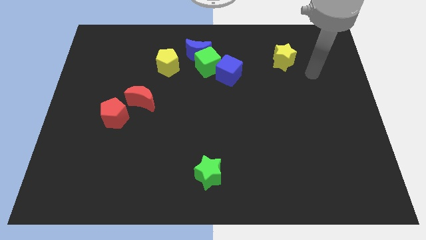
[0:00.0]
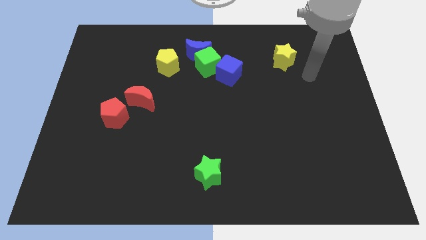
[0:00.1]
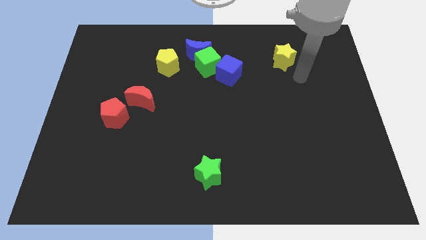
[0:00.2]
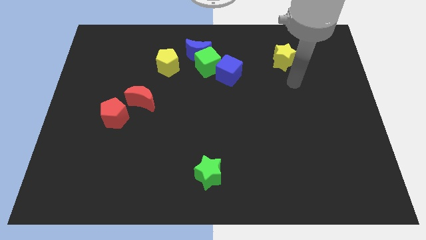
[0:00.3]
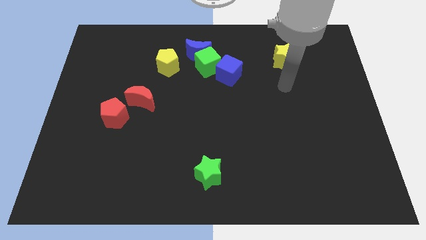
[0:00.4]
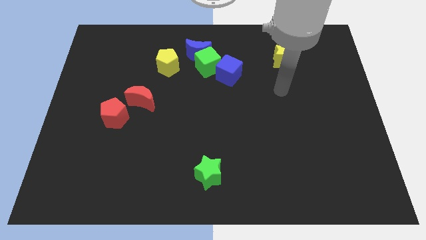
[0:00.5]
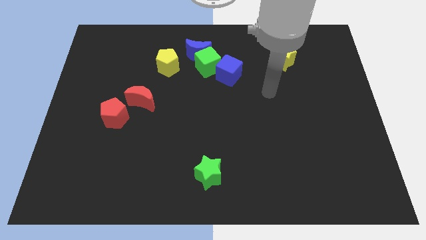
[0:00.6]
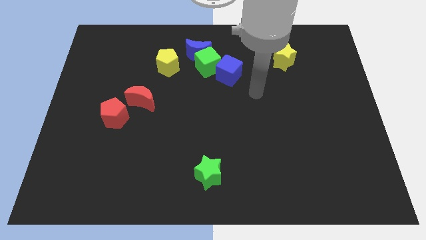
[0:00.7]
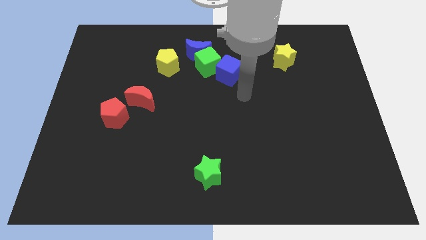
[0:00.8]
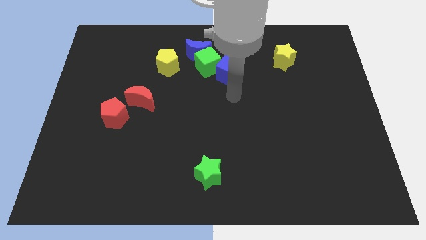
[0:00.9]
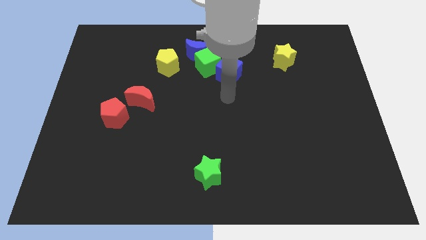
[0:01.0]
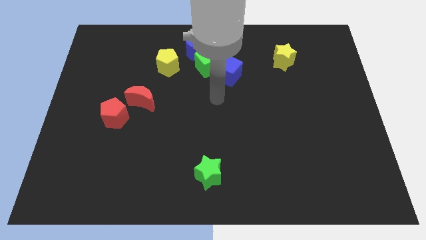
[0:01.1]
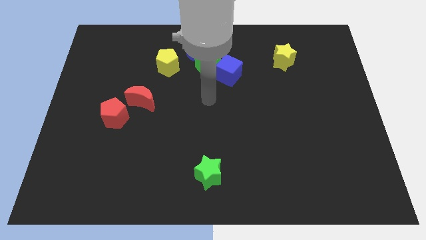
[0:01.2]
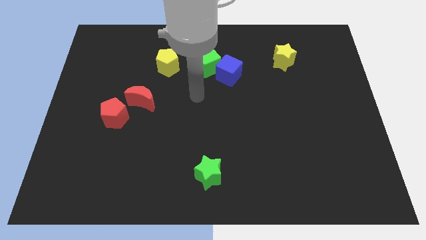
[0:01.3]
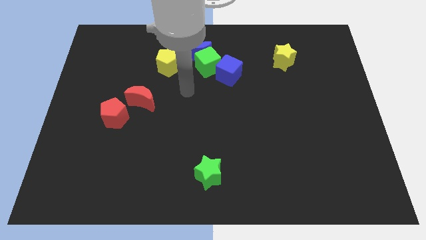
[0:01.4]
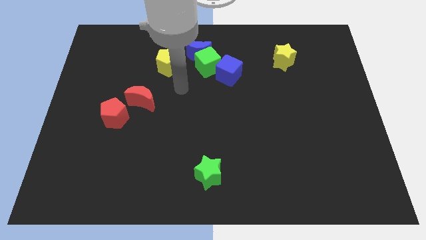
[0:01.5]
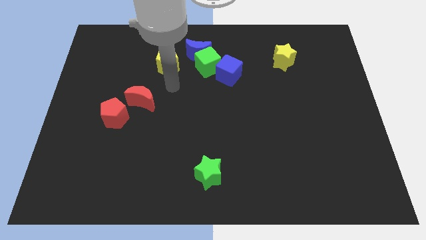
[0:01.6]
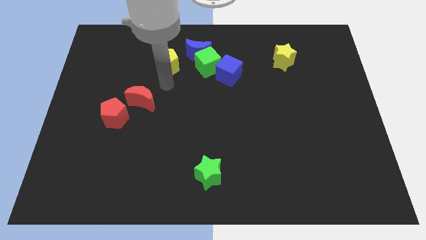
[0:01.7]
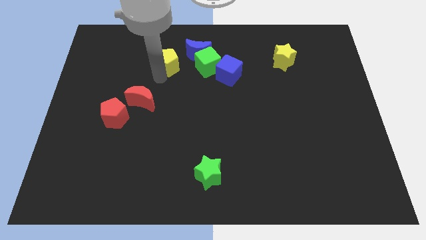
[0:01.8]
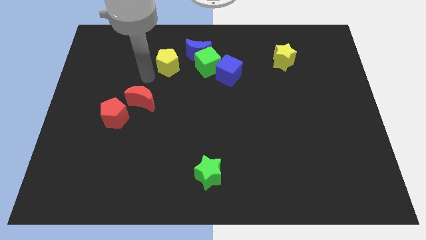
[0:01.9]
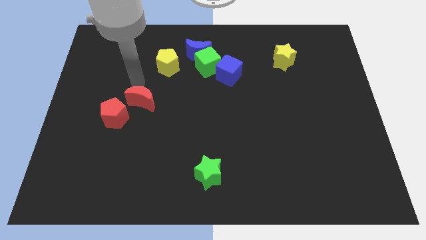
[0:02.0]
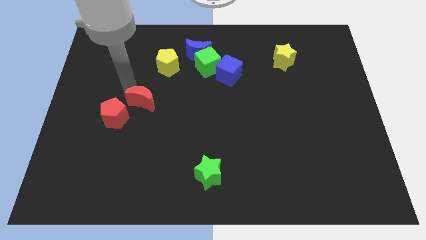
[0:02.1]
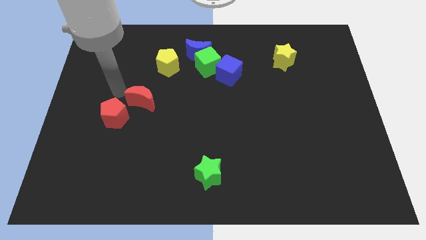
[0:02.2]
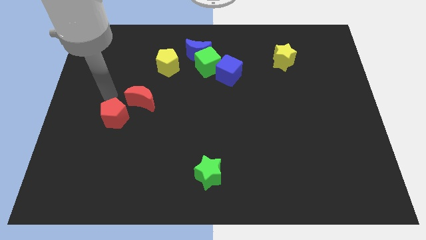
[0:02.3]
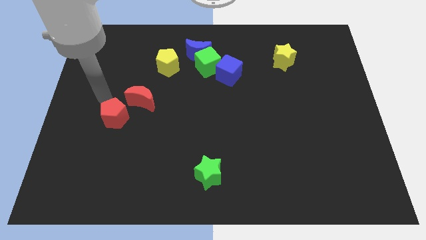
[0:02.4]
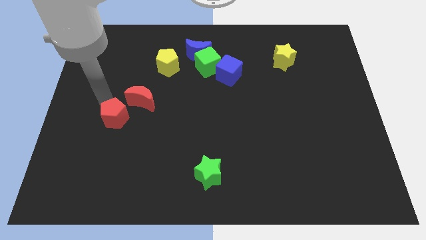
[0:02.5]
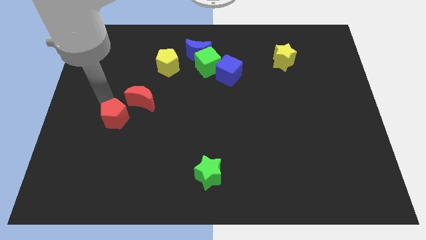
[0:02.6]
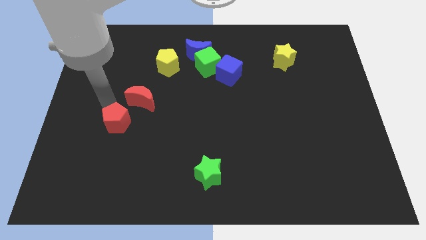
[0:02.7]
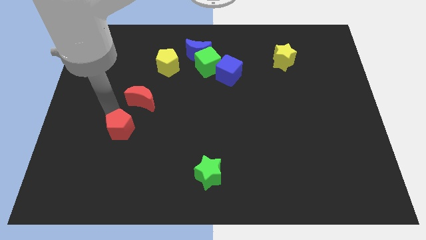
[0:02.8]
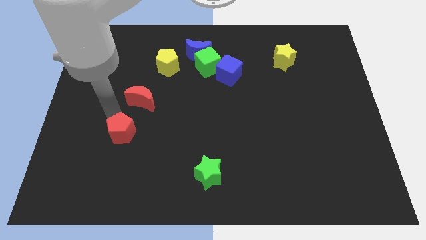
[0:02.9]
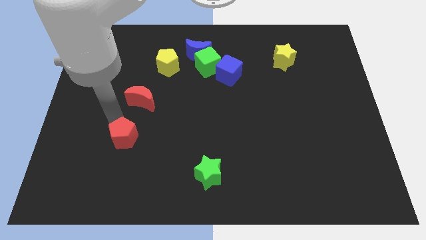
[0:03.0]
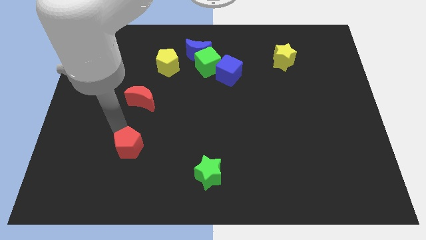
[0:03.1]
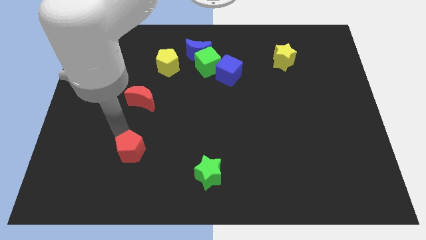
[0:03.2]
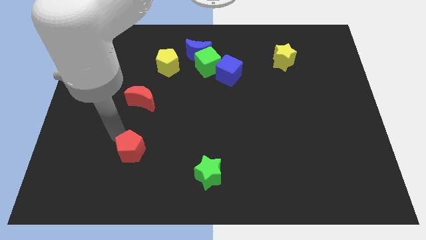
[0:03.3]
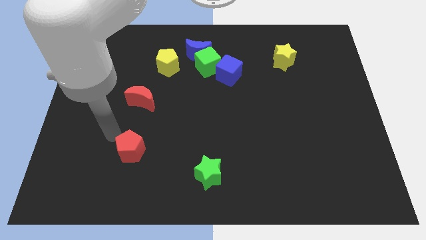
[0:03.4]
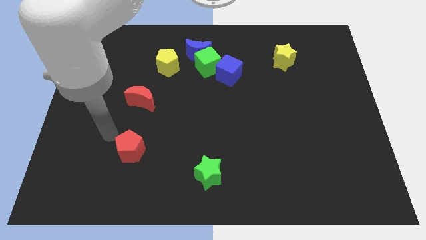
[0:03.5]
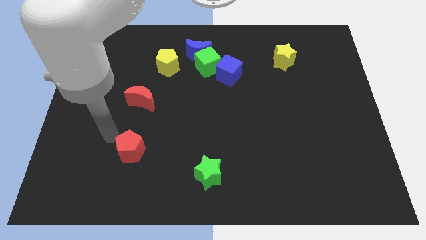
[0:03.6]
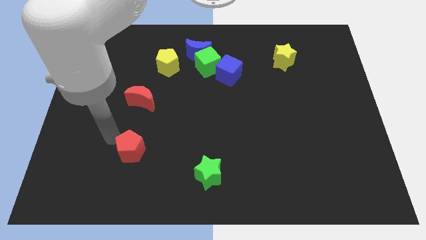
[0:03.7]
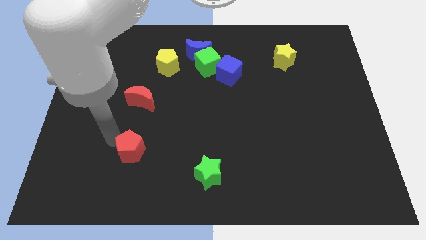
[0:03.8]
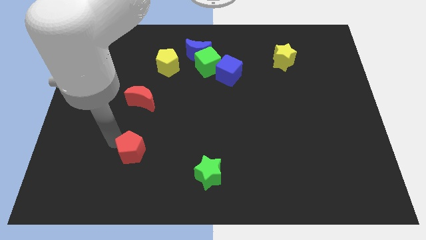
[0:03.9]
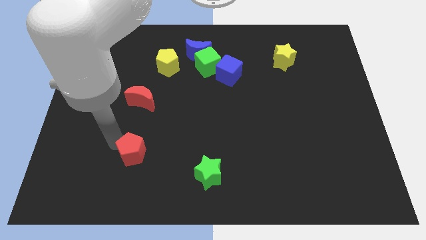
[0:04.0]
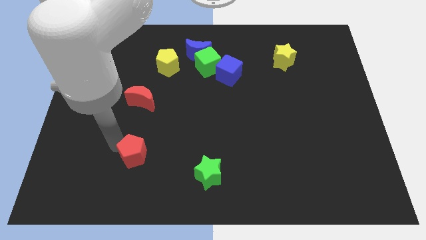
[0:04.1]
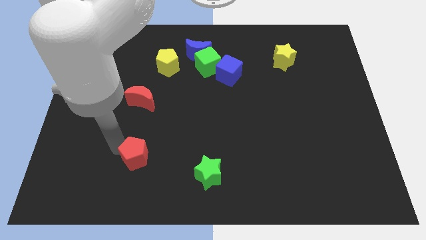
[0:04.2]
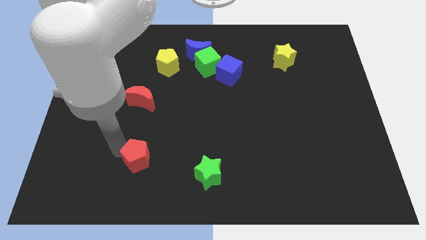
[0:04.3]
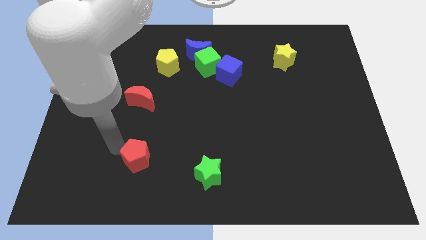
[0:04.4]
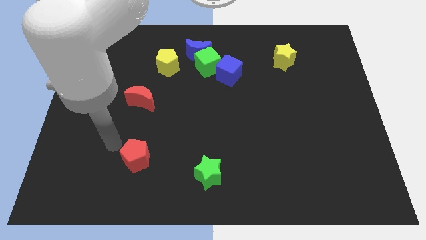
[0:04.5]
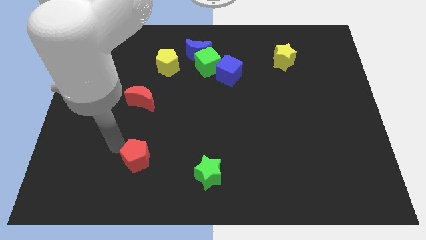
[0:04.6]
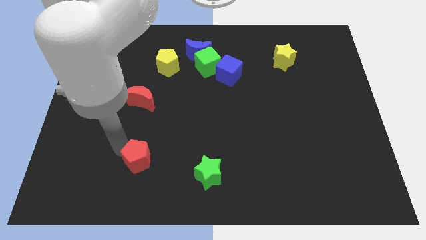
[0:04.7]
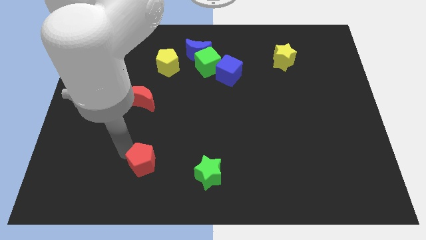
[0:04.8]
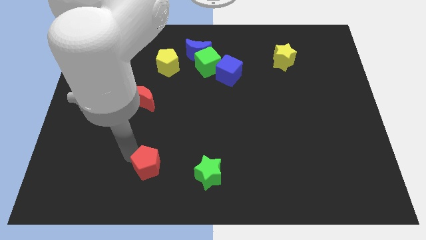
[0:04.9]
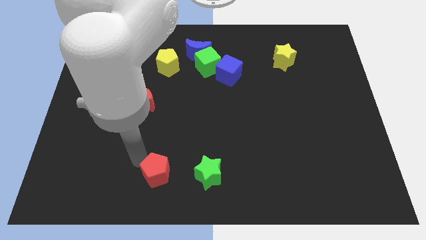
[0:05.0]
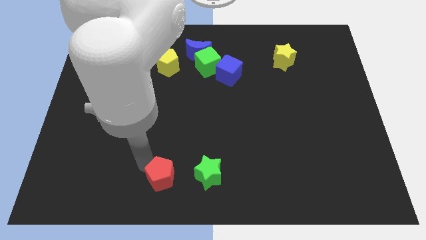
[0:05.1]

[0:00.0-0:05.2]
move the red pentagon to the bottom

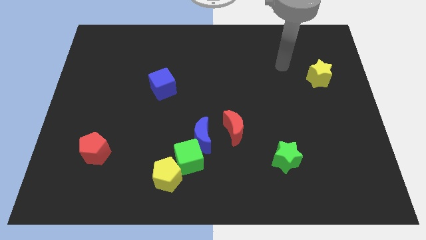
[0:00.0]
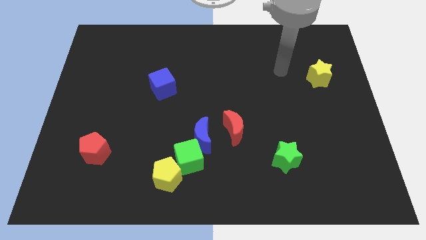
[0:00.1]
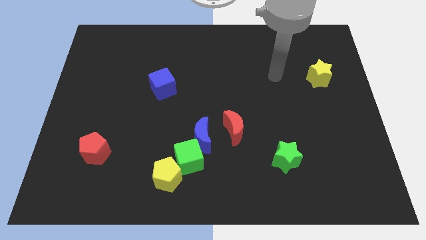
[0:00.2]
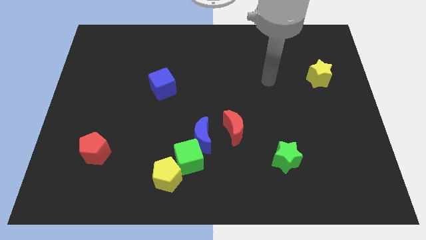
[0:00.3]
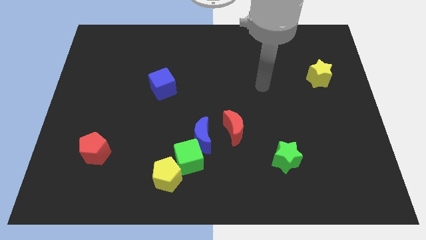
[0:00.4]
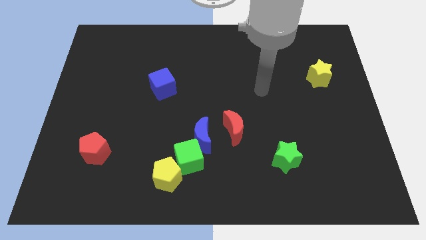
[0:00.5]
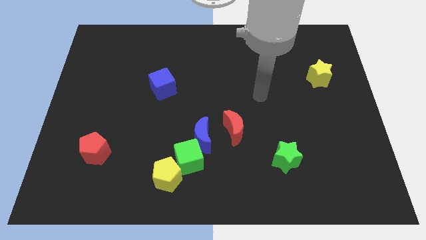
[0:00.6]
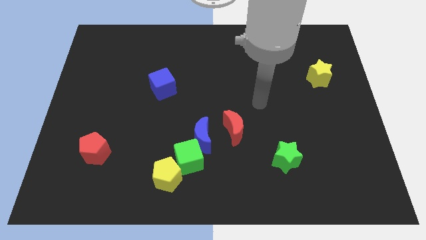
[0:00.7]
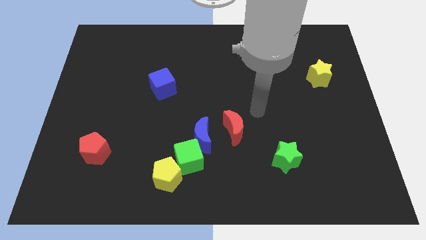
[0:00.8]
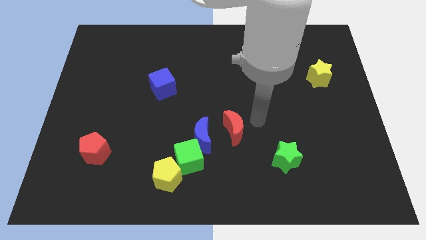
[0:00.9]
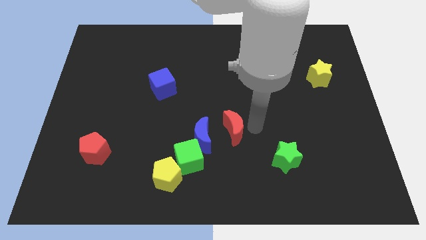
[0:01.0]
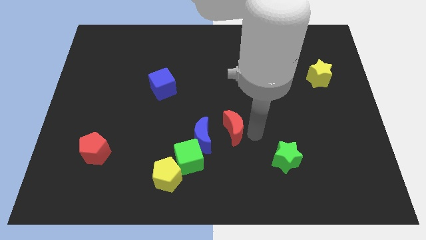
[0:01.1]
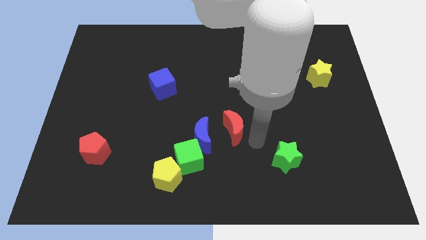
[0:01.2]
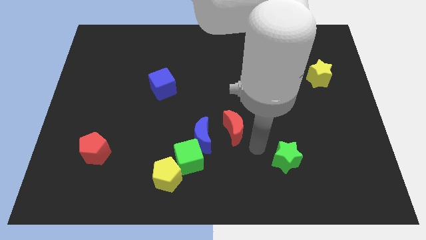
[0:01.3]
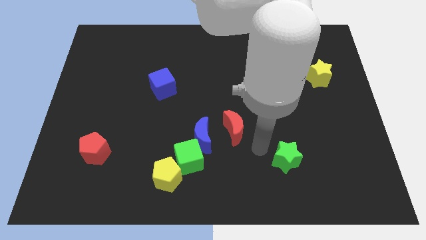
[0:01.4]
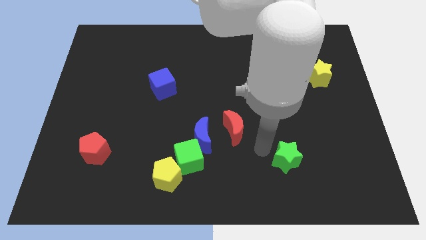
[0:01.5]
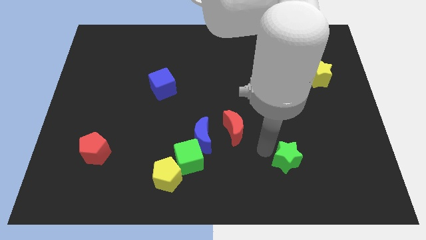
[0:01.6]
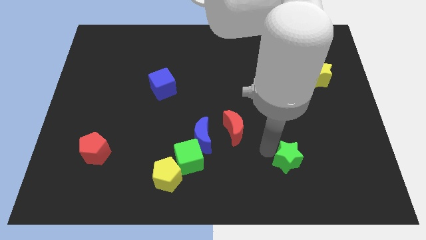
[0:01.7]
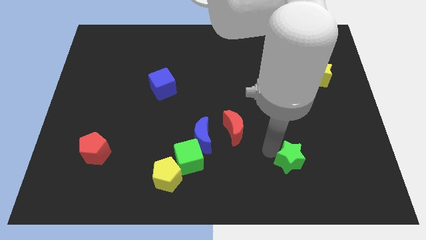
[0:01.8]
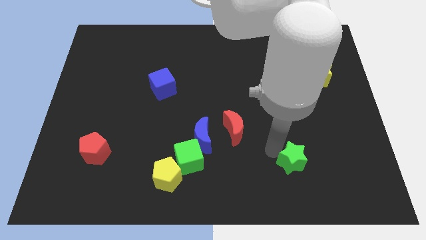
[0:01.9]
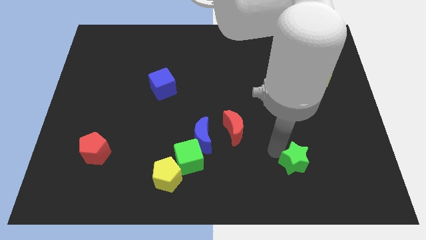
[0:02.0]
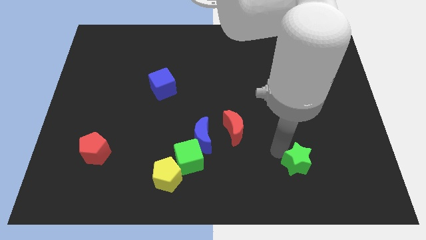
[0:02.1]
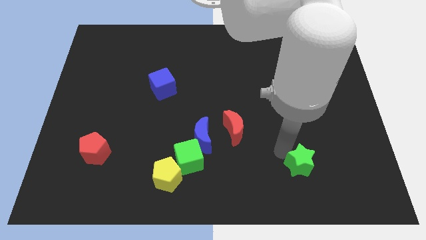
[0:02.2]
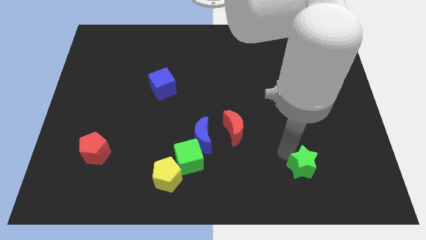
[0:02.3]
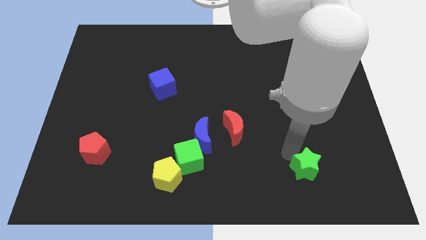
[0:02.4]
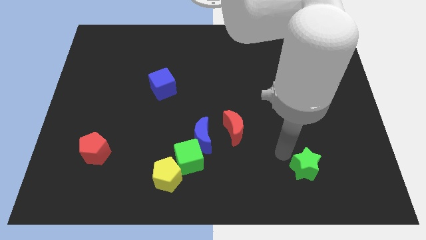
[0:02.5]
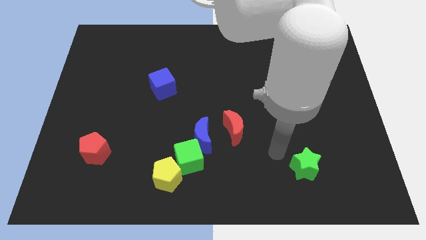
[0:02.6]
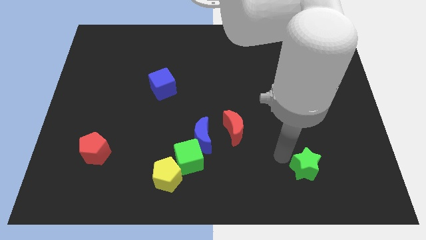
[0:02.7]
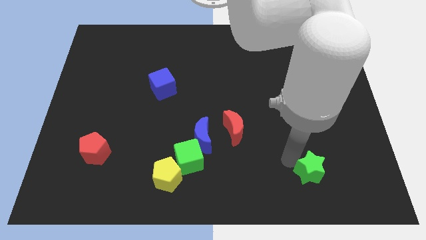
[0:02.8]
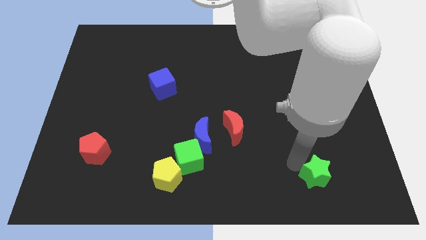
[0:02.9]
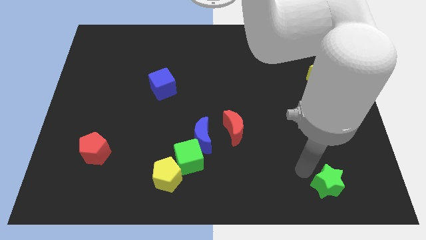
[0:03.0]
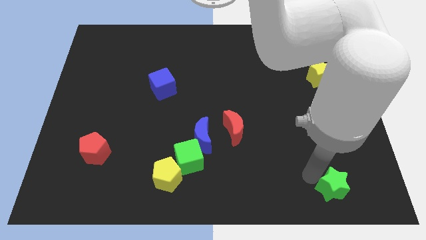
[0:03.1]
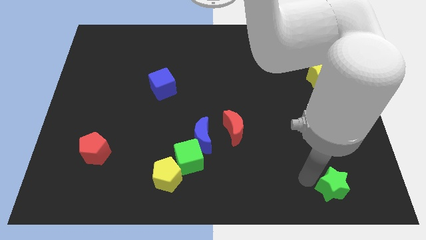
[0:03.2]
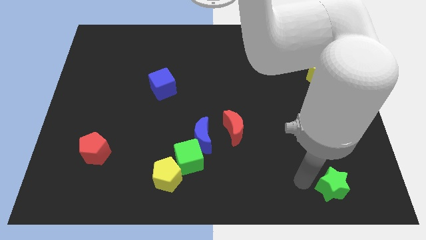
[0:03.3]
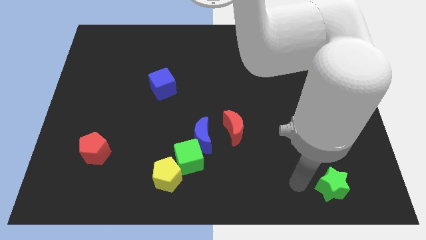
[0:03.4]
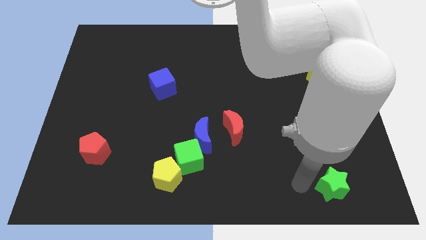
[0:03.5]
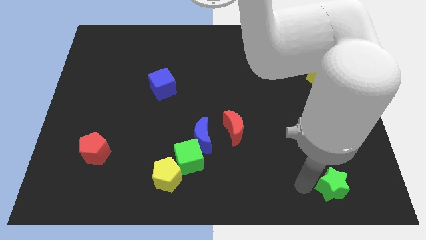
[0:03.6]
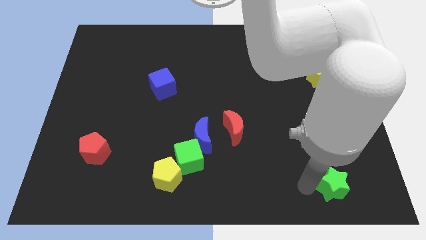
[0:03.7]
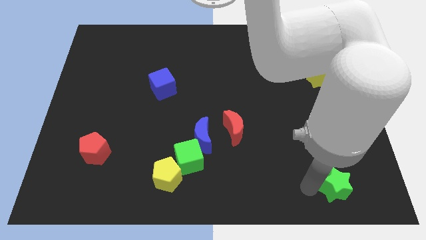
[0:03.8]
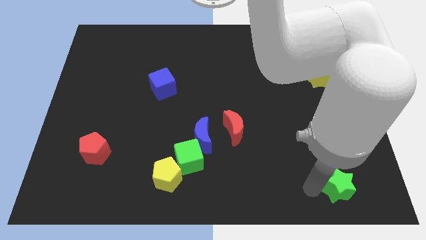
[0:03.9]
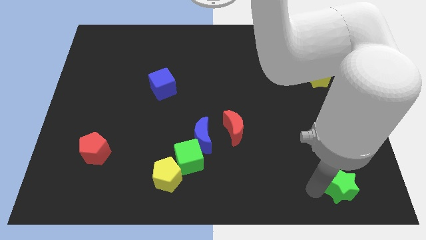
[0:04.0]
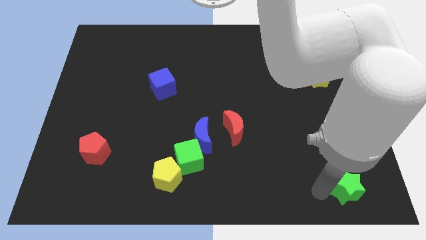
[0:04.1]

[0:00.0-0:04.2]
put the green star to the bottom right
